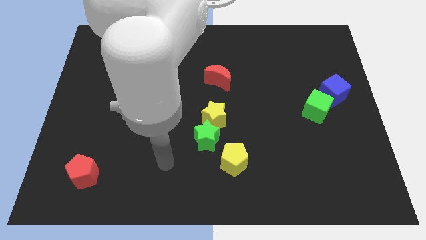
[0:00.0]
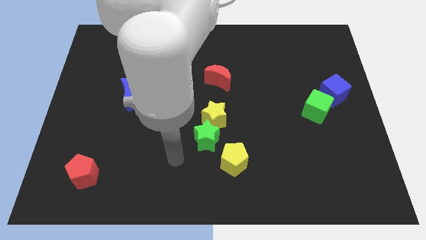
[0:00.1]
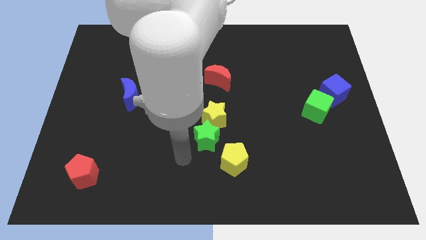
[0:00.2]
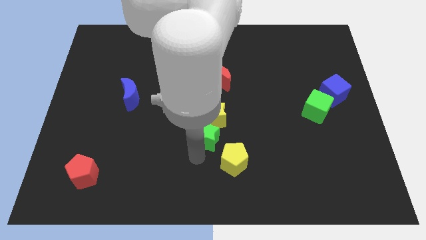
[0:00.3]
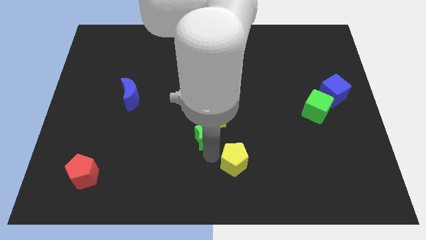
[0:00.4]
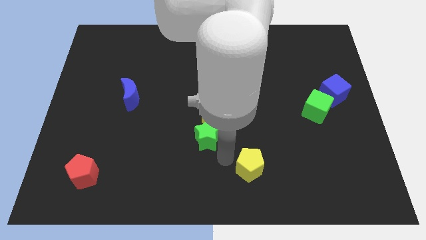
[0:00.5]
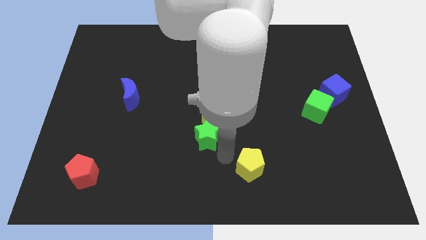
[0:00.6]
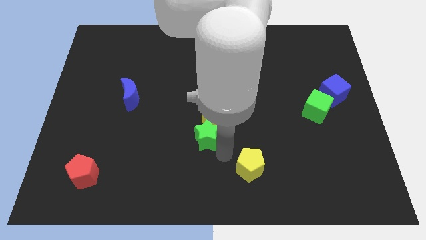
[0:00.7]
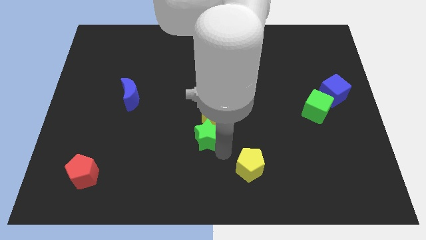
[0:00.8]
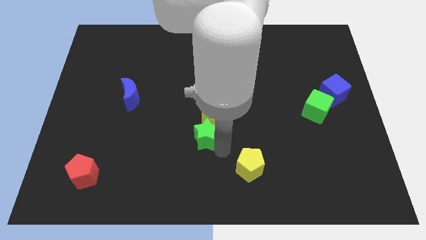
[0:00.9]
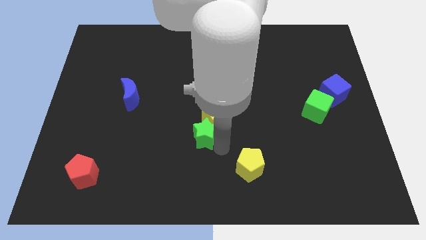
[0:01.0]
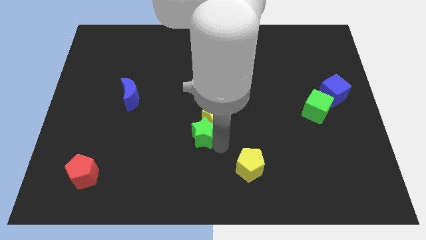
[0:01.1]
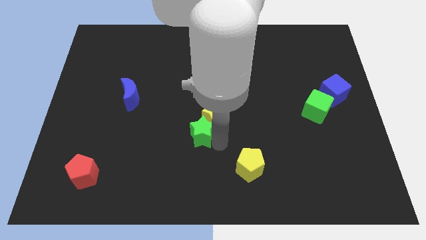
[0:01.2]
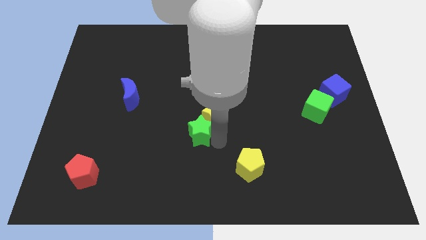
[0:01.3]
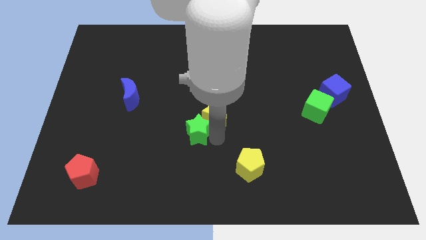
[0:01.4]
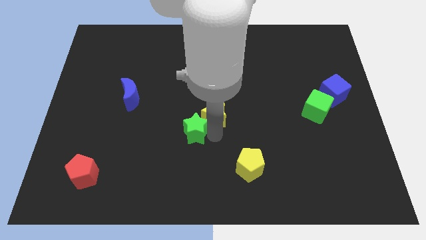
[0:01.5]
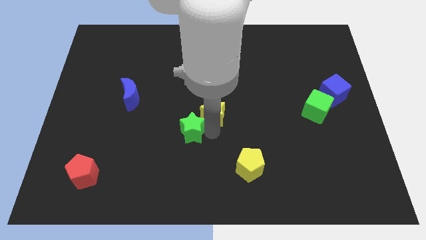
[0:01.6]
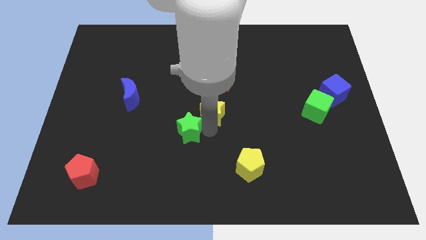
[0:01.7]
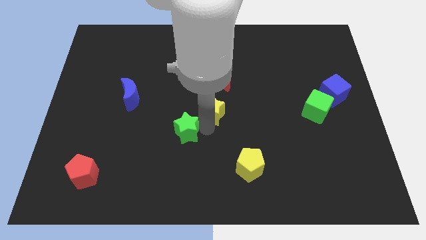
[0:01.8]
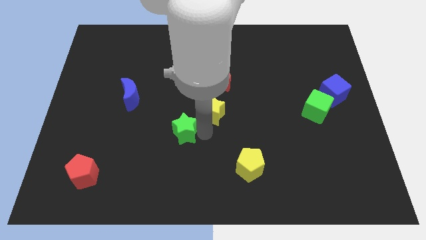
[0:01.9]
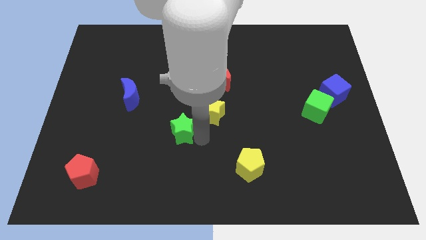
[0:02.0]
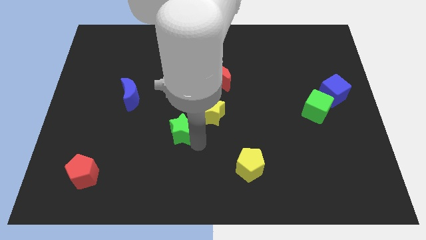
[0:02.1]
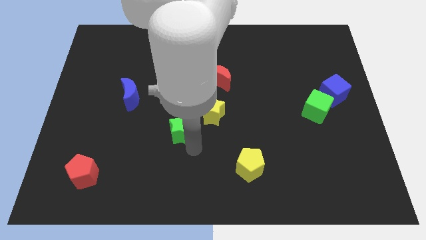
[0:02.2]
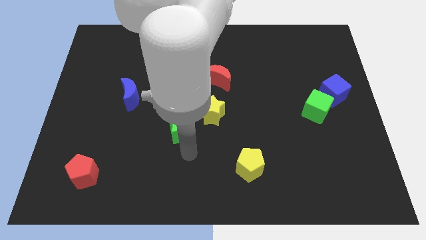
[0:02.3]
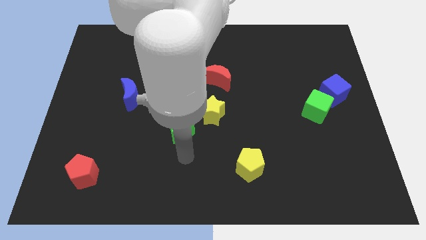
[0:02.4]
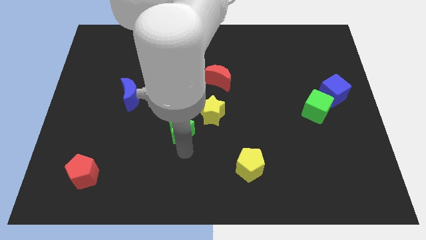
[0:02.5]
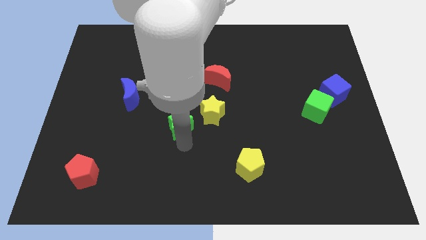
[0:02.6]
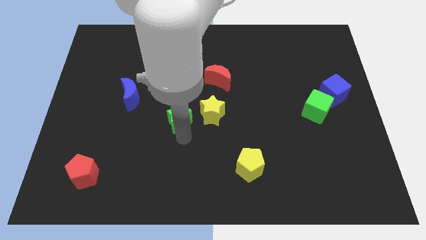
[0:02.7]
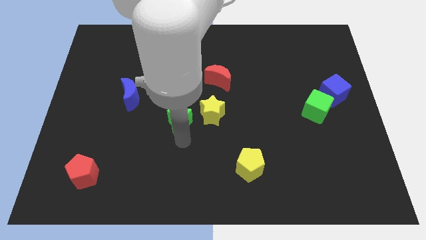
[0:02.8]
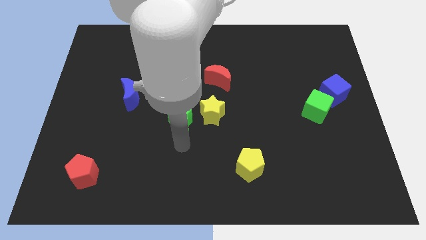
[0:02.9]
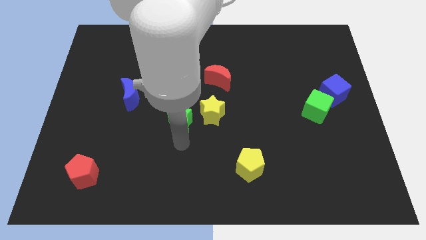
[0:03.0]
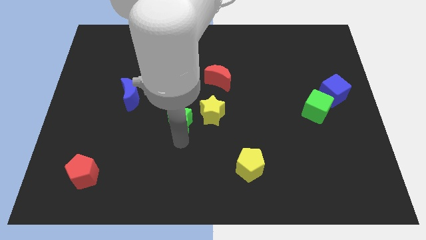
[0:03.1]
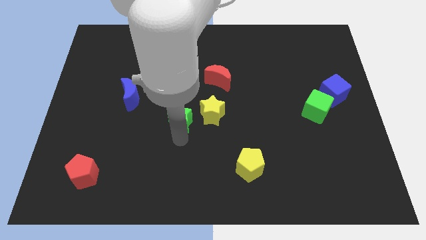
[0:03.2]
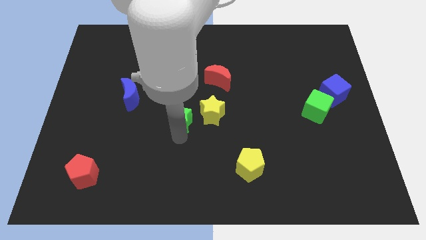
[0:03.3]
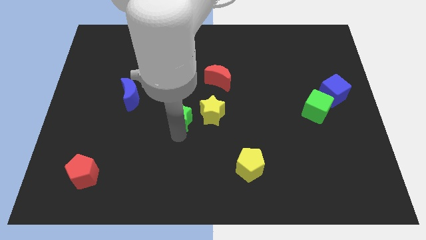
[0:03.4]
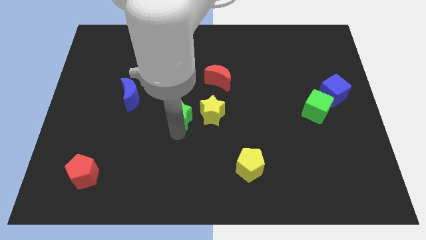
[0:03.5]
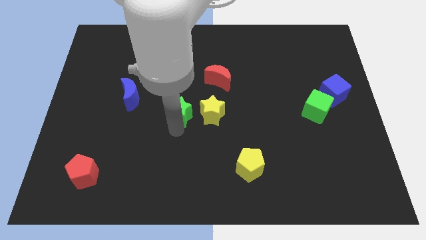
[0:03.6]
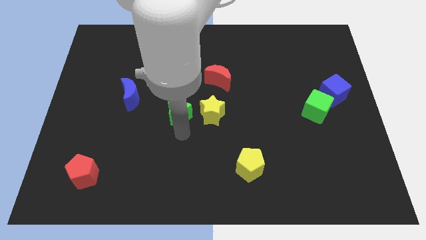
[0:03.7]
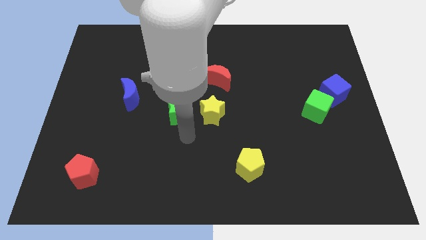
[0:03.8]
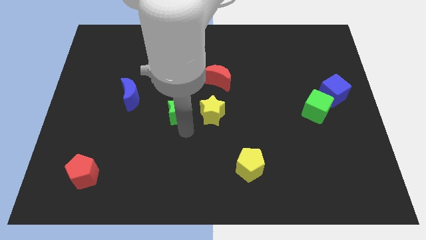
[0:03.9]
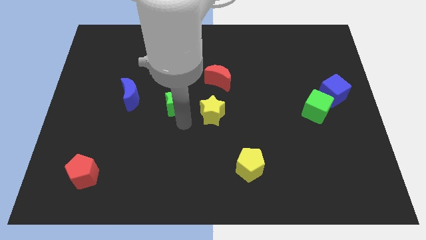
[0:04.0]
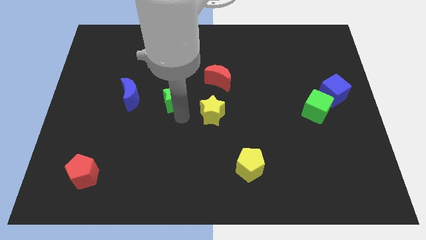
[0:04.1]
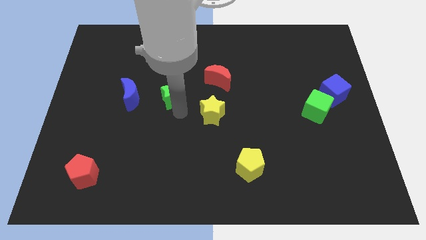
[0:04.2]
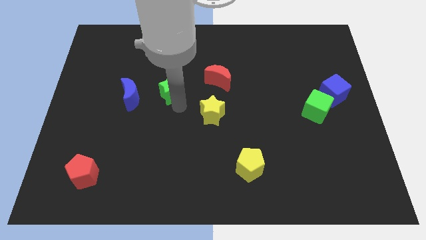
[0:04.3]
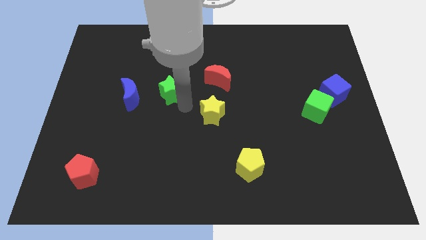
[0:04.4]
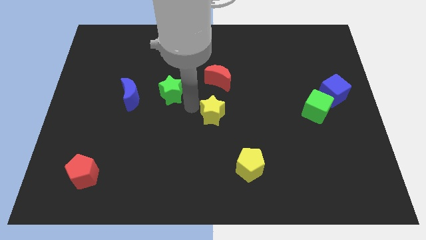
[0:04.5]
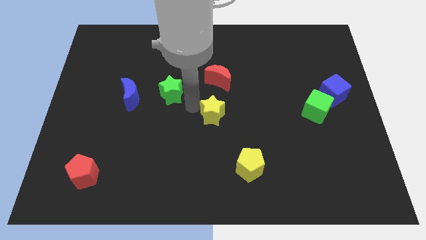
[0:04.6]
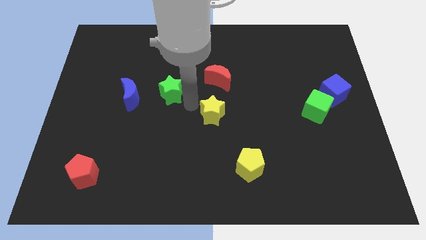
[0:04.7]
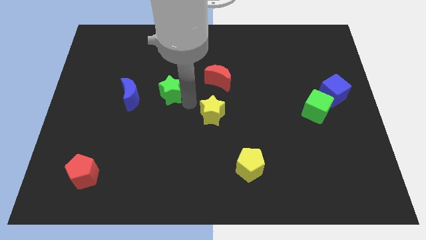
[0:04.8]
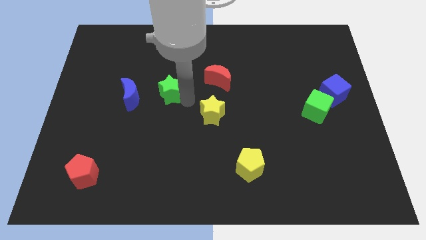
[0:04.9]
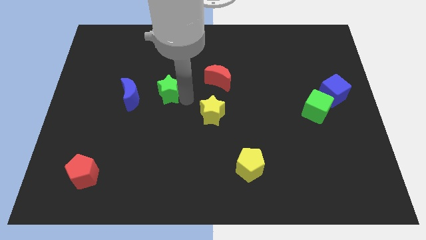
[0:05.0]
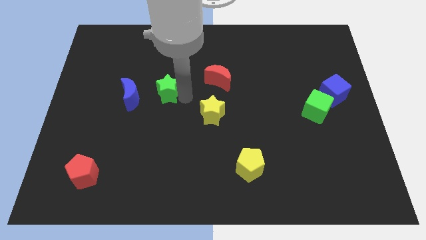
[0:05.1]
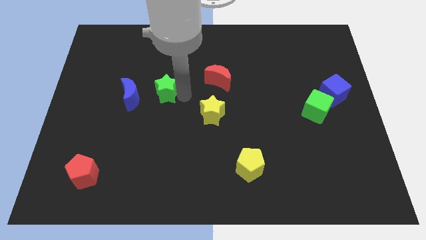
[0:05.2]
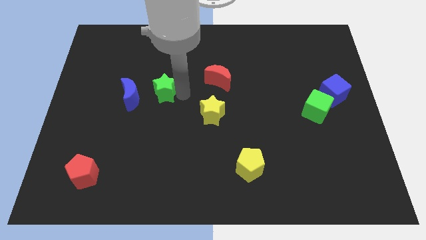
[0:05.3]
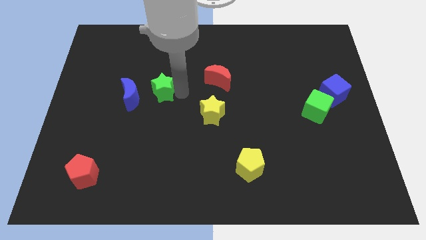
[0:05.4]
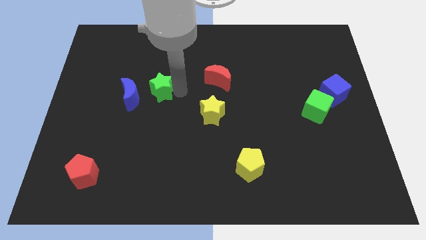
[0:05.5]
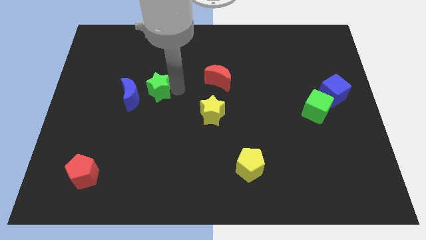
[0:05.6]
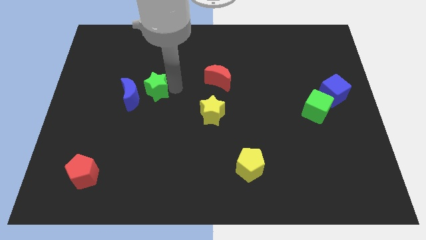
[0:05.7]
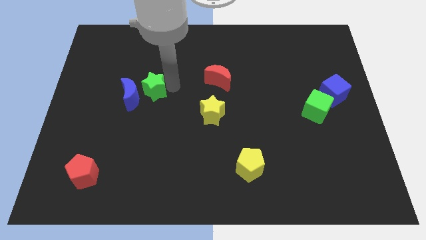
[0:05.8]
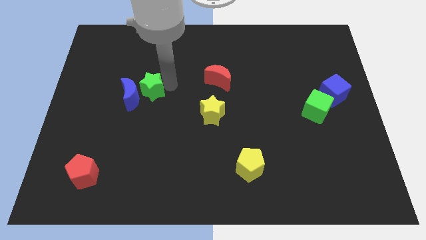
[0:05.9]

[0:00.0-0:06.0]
slide the green star up and then left

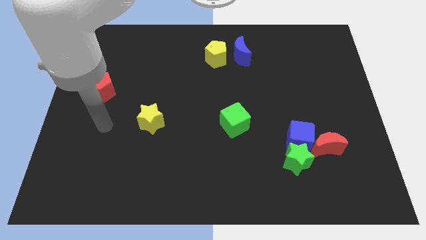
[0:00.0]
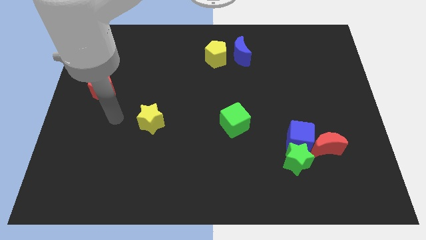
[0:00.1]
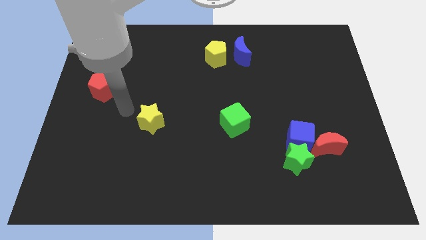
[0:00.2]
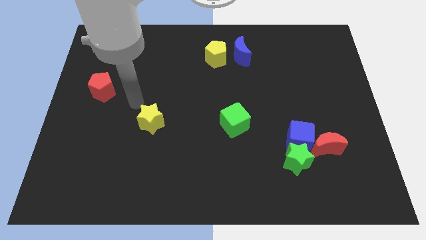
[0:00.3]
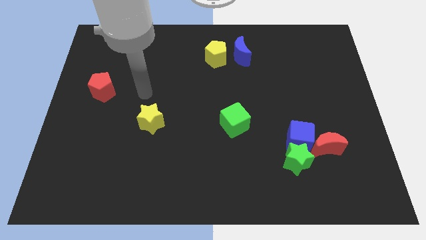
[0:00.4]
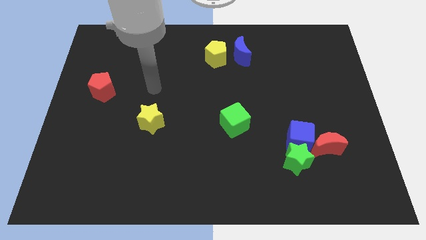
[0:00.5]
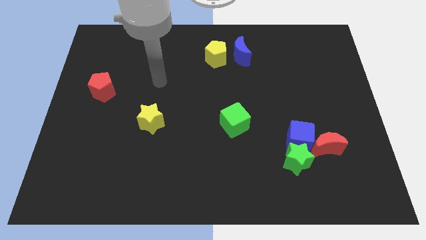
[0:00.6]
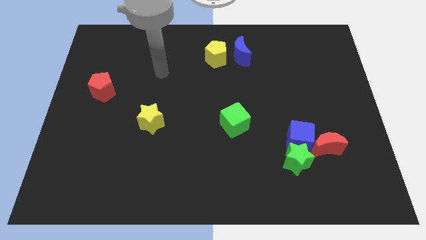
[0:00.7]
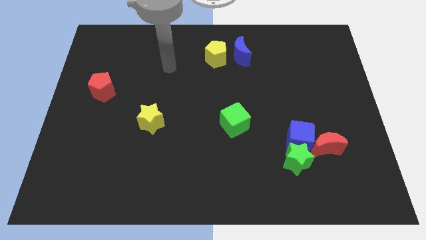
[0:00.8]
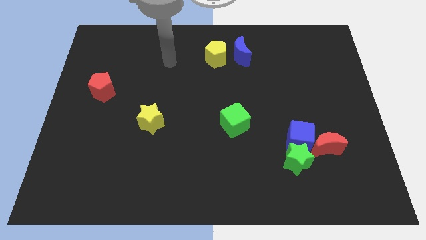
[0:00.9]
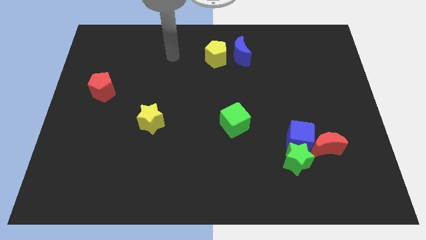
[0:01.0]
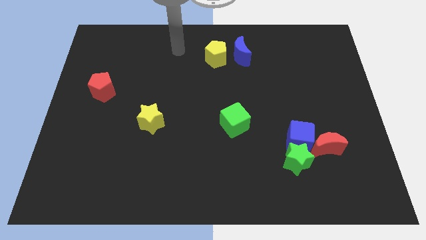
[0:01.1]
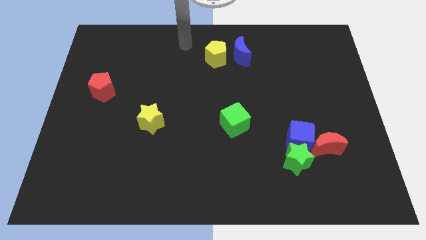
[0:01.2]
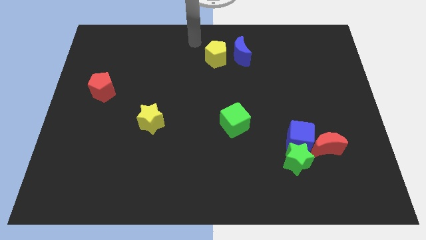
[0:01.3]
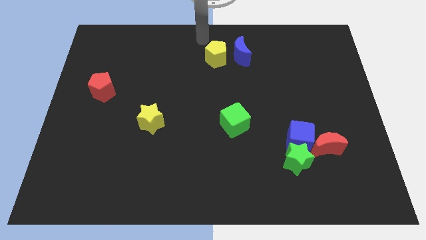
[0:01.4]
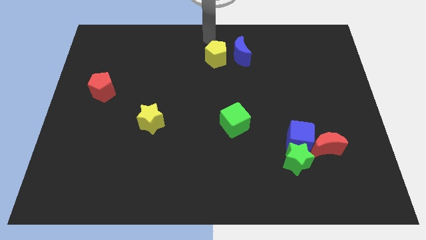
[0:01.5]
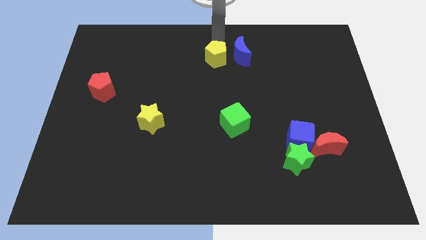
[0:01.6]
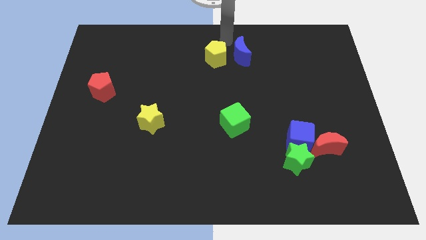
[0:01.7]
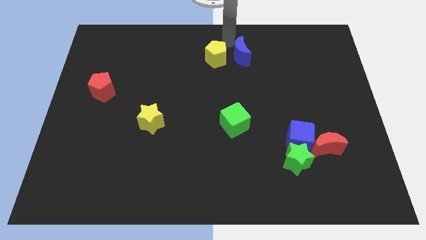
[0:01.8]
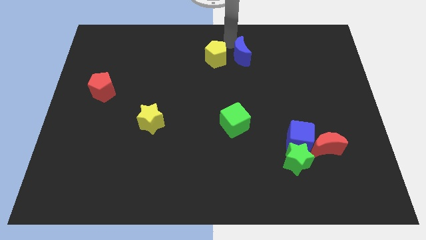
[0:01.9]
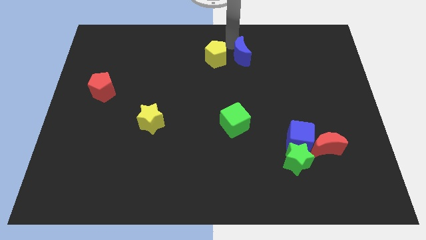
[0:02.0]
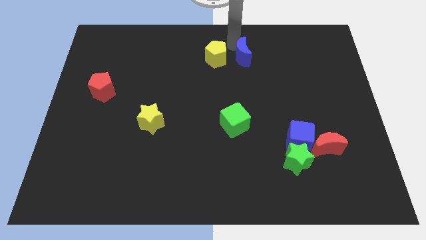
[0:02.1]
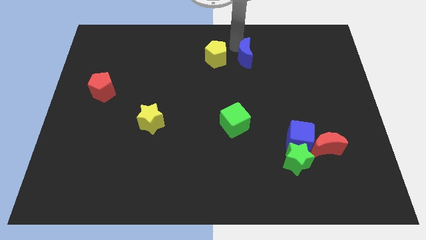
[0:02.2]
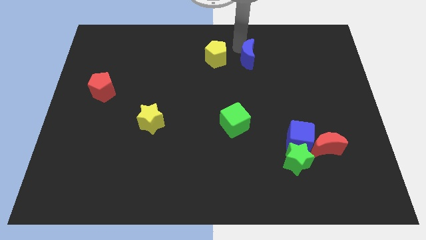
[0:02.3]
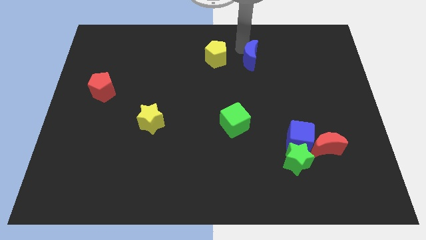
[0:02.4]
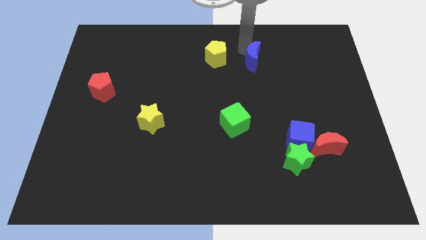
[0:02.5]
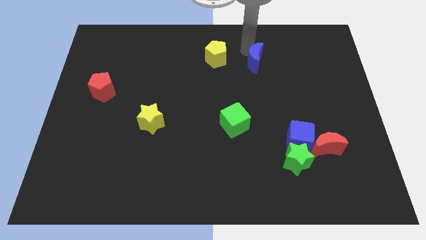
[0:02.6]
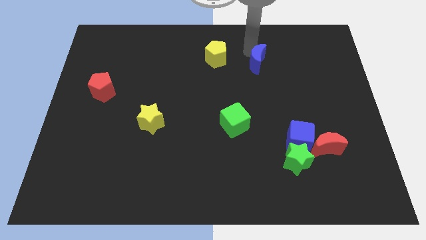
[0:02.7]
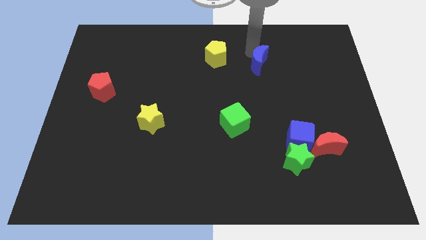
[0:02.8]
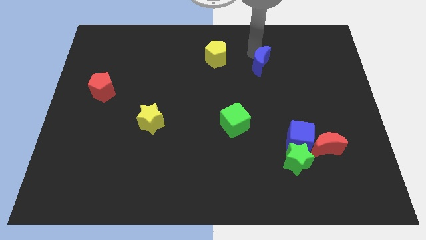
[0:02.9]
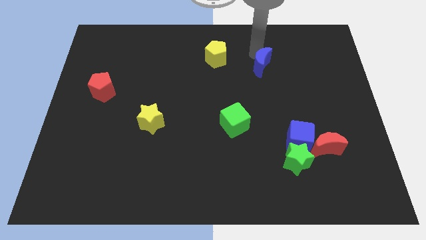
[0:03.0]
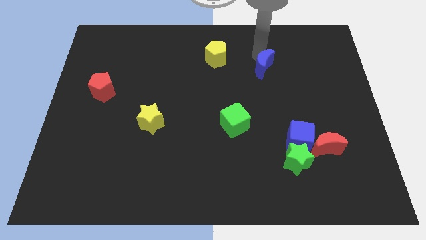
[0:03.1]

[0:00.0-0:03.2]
slightly push the blue moon diagonally downwards and right
